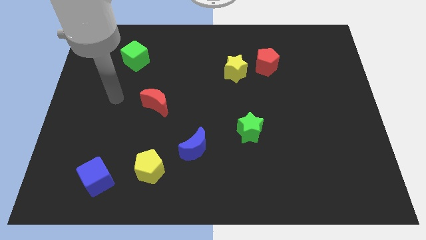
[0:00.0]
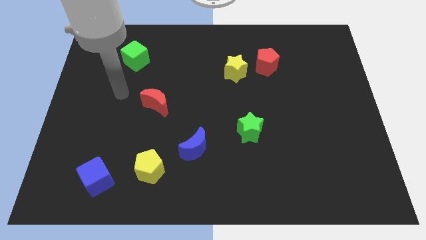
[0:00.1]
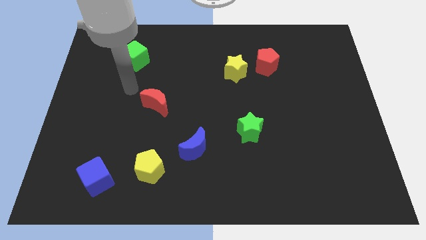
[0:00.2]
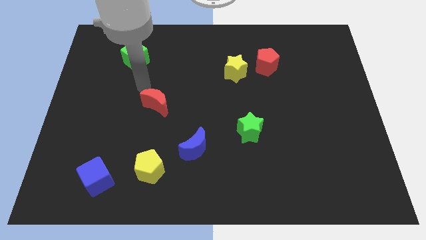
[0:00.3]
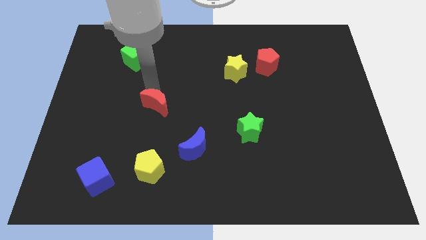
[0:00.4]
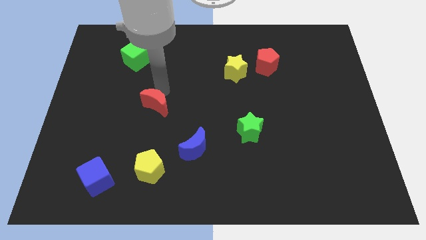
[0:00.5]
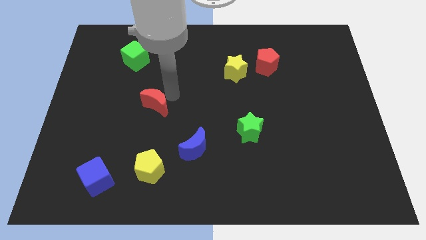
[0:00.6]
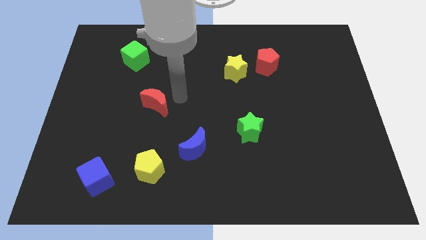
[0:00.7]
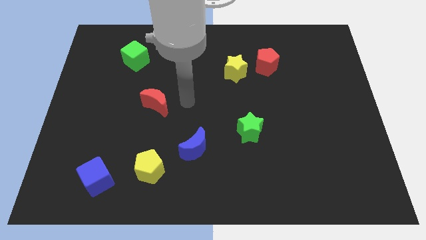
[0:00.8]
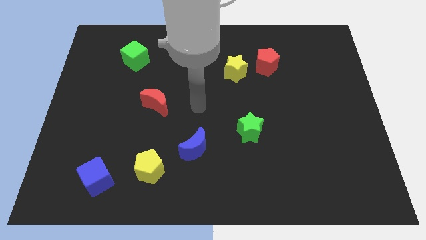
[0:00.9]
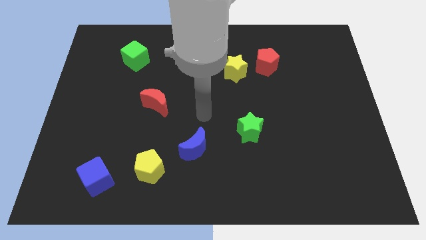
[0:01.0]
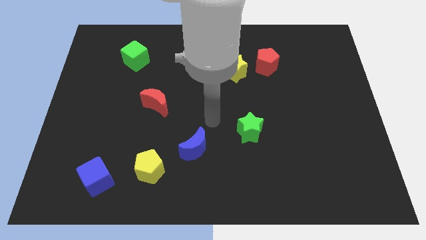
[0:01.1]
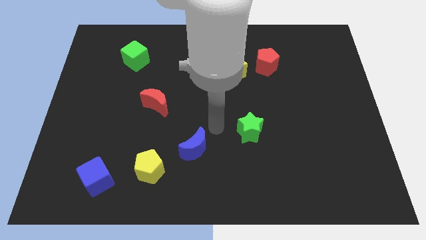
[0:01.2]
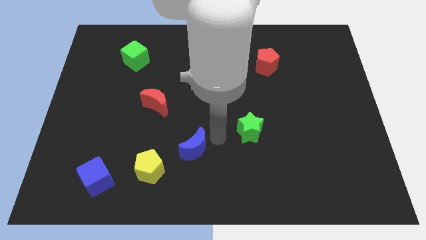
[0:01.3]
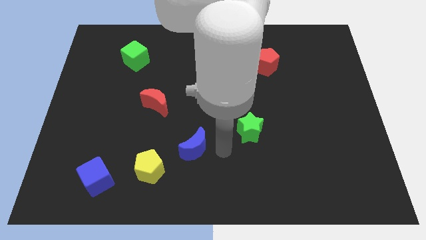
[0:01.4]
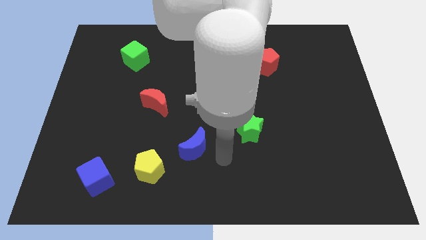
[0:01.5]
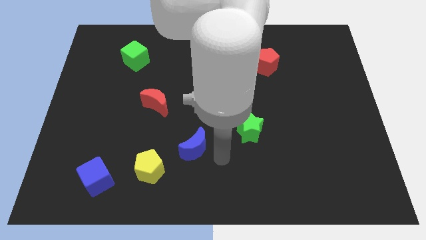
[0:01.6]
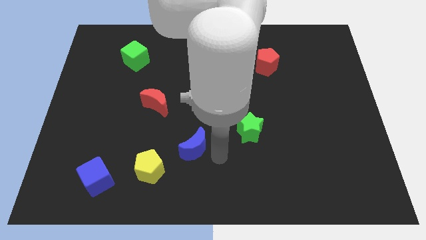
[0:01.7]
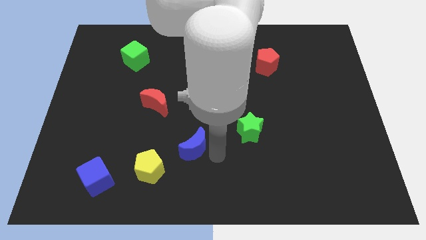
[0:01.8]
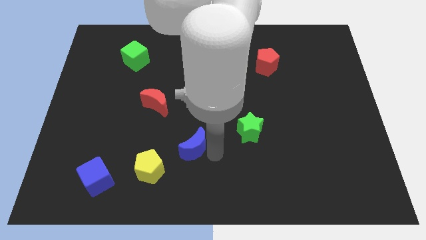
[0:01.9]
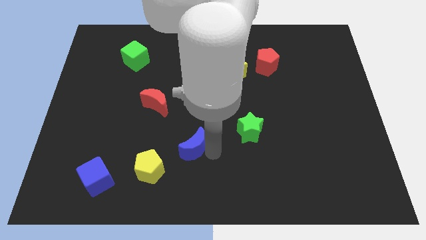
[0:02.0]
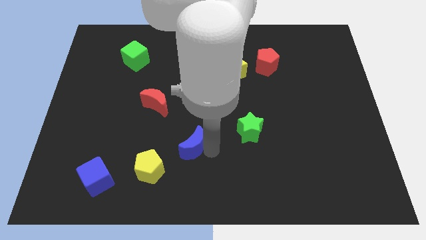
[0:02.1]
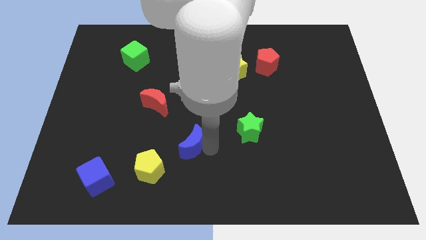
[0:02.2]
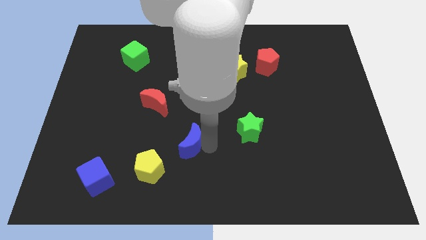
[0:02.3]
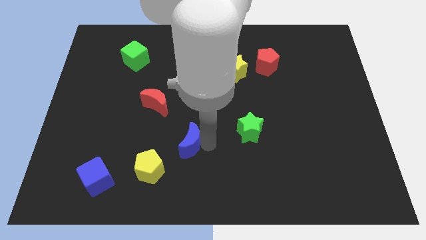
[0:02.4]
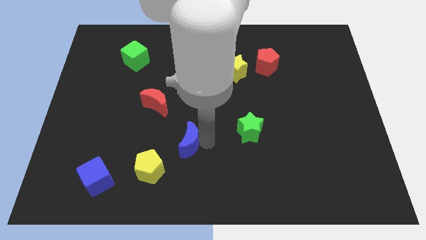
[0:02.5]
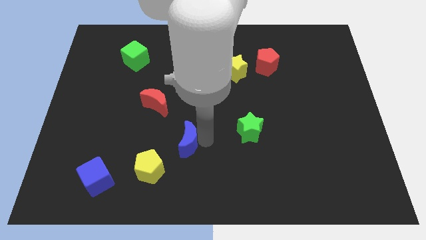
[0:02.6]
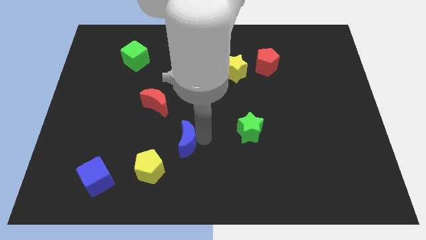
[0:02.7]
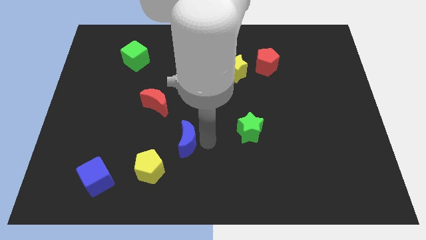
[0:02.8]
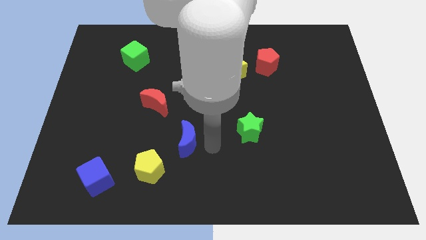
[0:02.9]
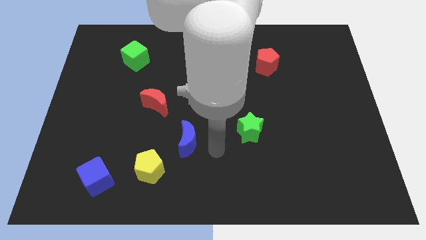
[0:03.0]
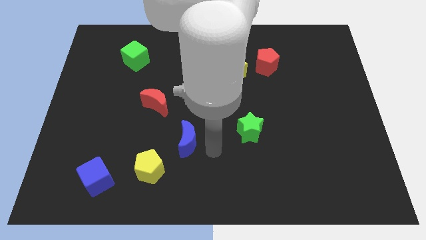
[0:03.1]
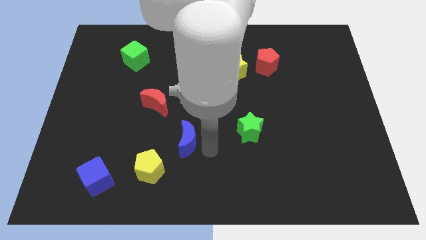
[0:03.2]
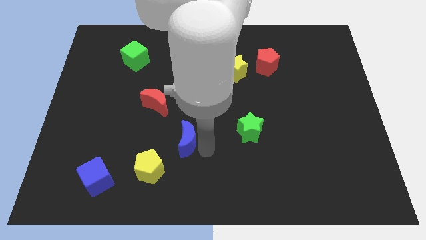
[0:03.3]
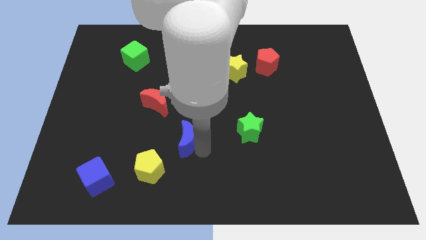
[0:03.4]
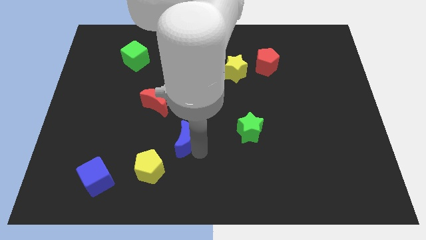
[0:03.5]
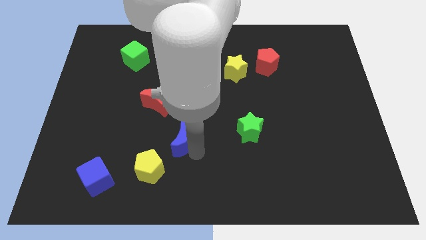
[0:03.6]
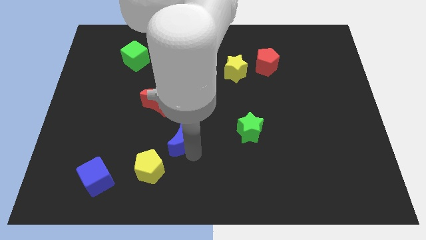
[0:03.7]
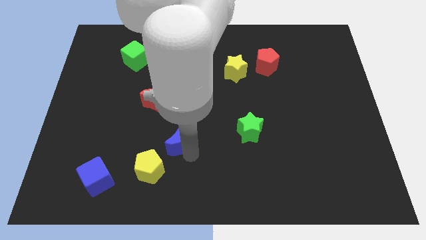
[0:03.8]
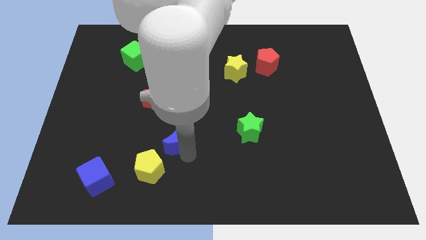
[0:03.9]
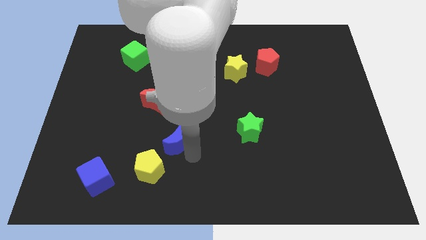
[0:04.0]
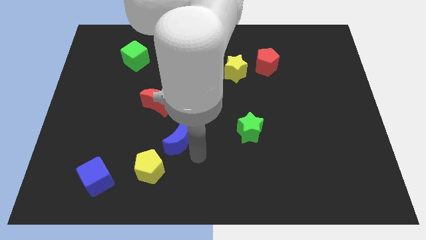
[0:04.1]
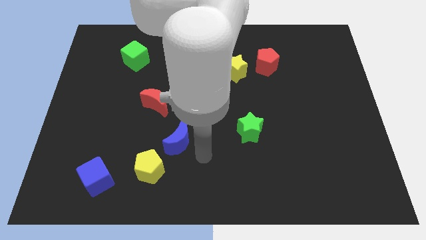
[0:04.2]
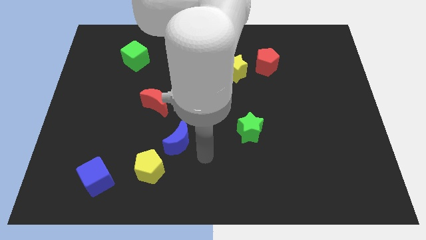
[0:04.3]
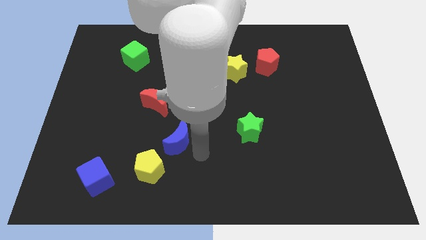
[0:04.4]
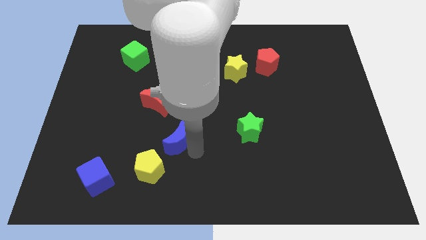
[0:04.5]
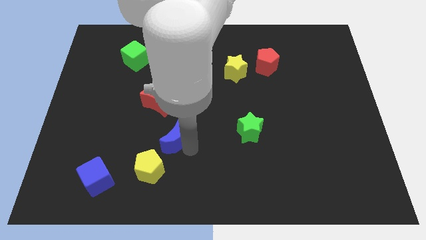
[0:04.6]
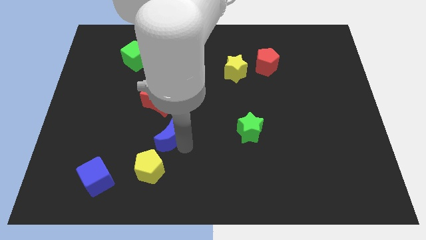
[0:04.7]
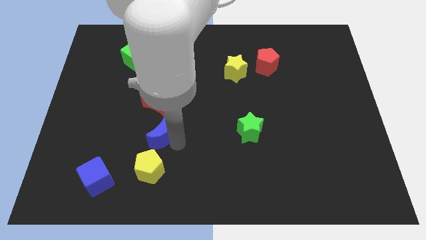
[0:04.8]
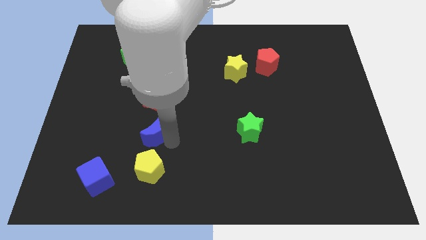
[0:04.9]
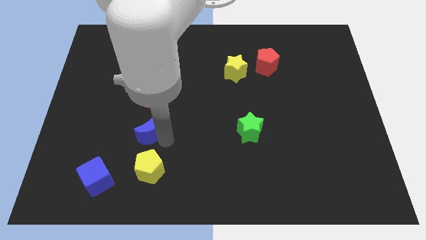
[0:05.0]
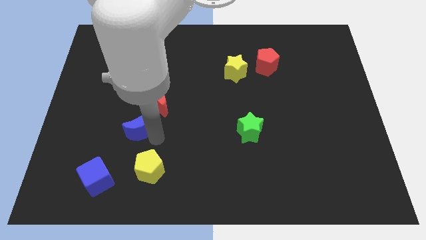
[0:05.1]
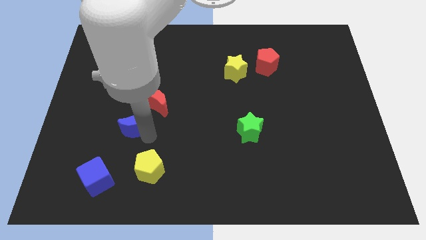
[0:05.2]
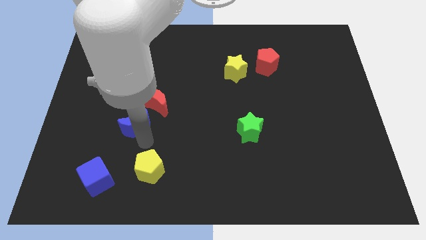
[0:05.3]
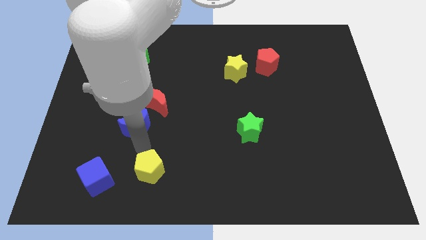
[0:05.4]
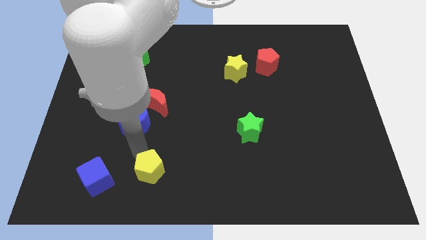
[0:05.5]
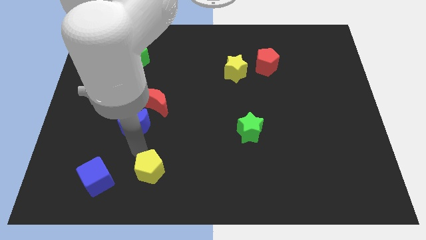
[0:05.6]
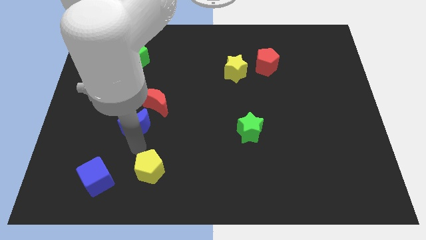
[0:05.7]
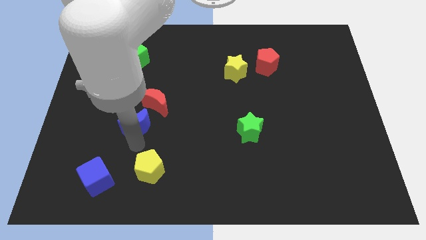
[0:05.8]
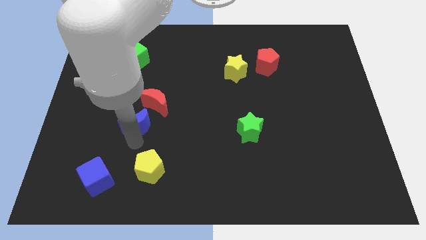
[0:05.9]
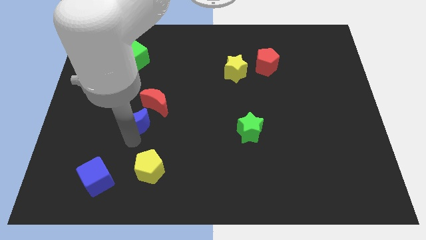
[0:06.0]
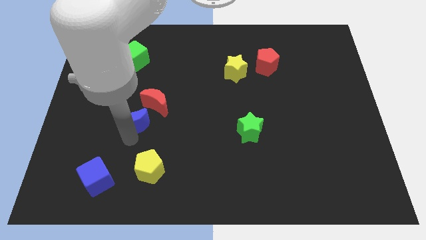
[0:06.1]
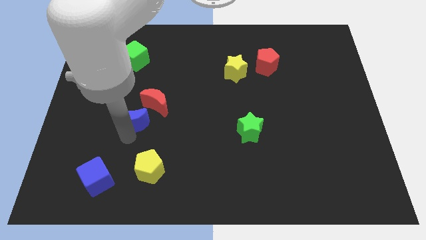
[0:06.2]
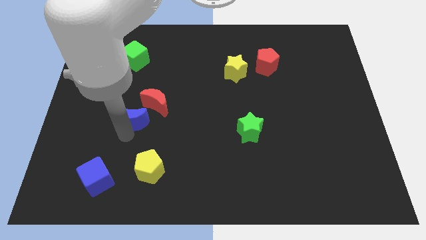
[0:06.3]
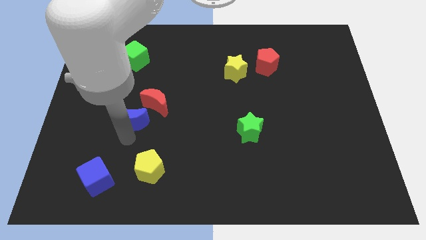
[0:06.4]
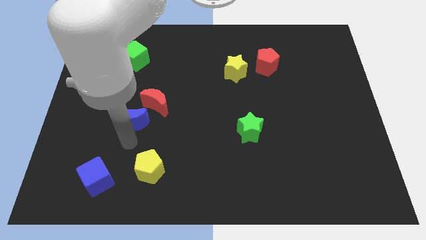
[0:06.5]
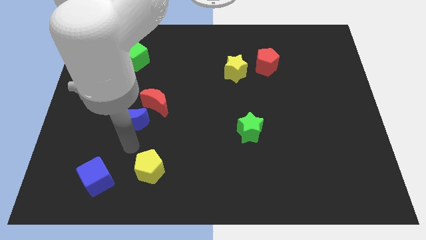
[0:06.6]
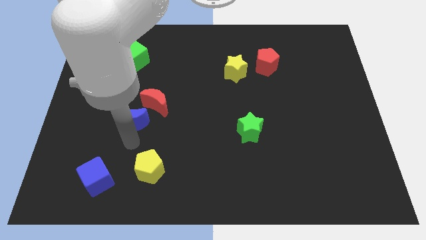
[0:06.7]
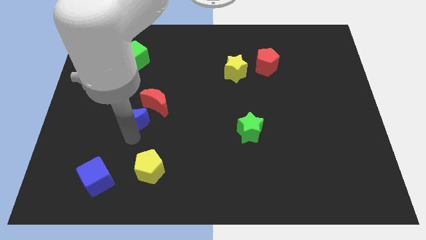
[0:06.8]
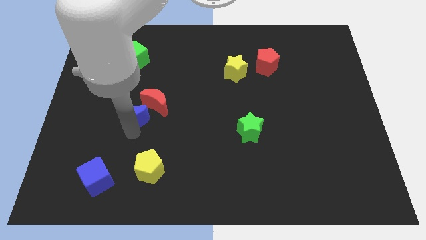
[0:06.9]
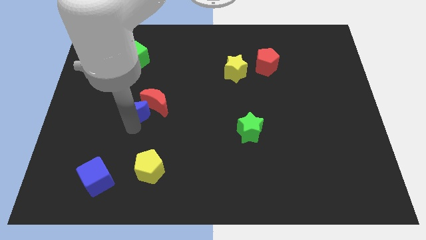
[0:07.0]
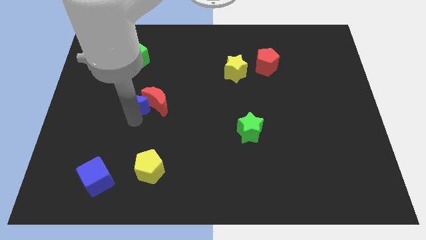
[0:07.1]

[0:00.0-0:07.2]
slide the blue moon to the bottom of the green cube
